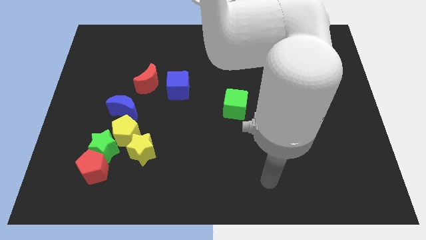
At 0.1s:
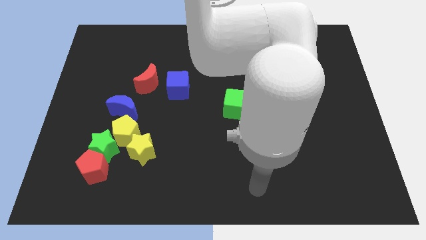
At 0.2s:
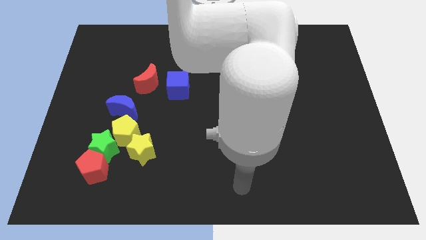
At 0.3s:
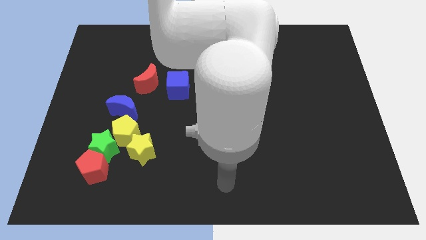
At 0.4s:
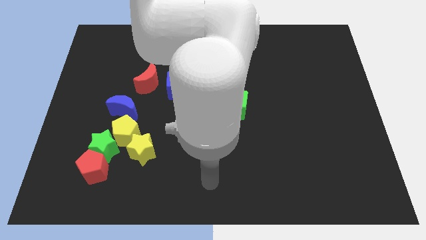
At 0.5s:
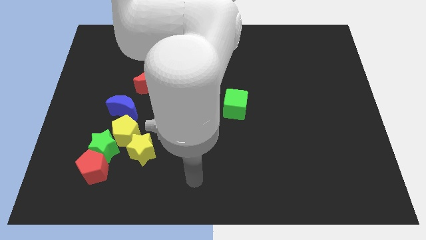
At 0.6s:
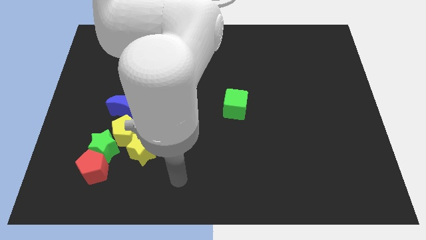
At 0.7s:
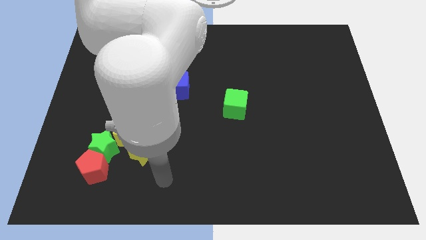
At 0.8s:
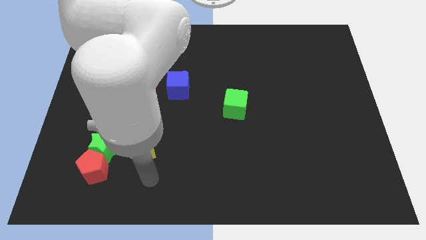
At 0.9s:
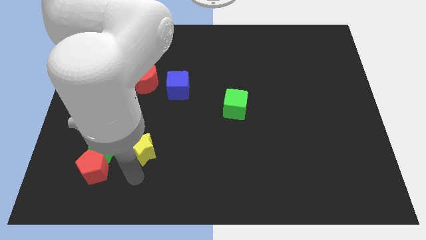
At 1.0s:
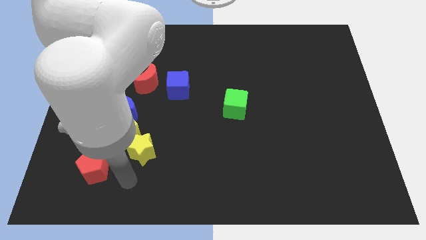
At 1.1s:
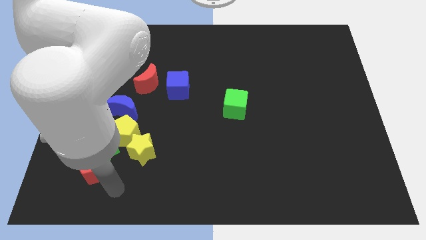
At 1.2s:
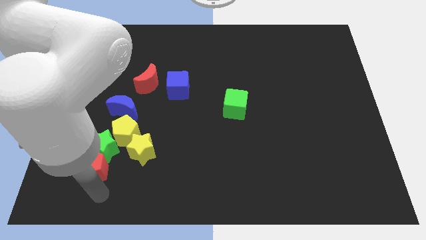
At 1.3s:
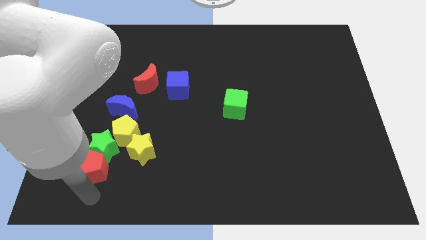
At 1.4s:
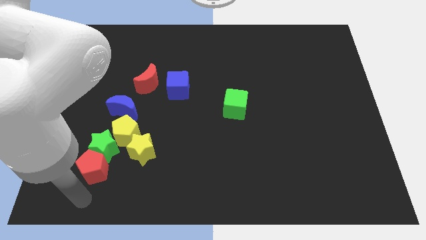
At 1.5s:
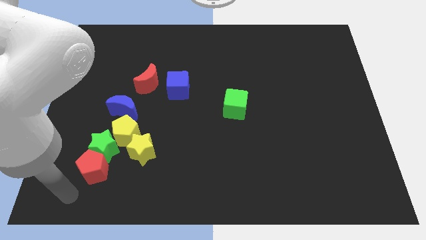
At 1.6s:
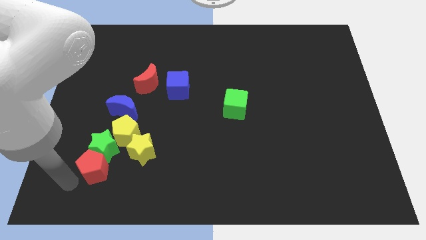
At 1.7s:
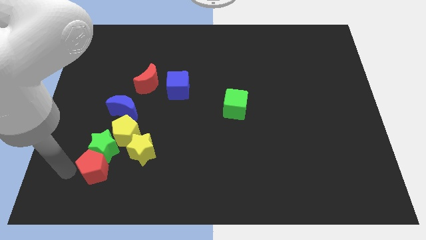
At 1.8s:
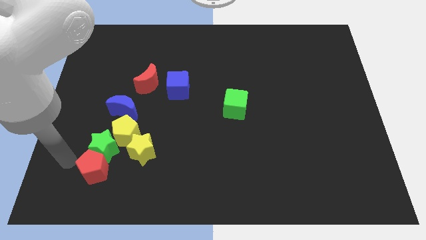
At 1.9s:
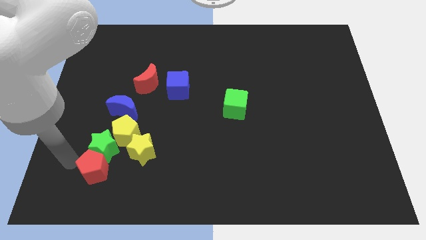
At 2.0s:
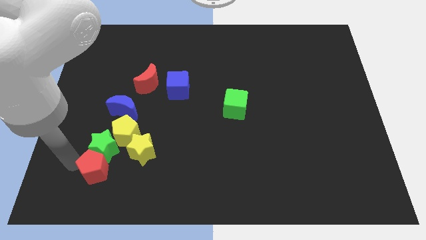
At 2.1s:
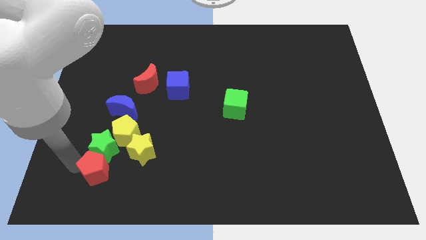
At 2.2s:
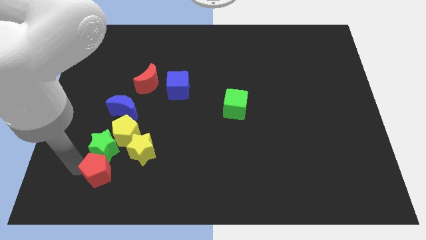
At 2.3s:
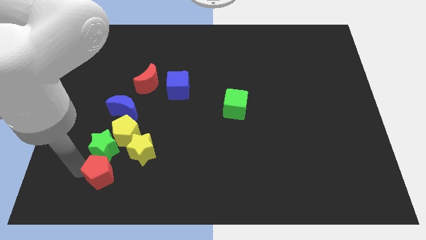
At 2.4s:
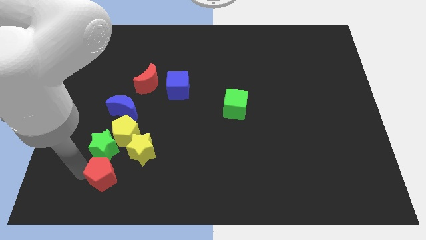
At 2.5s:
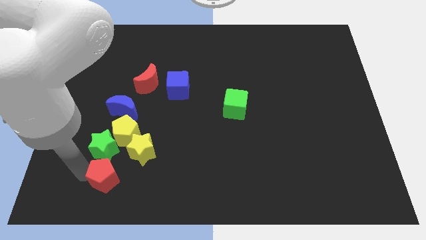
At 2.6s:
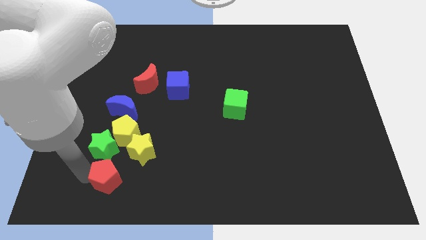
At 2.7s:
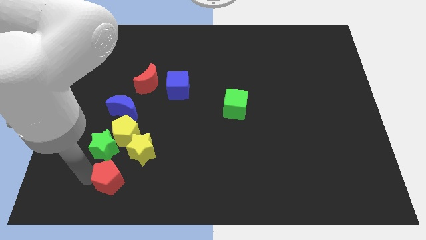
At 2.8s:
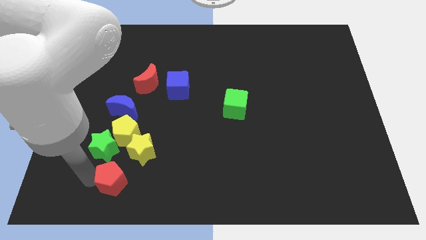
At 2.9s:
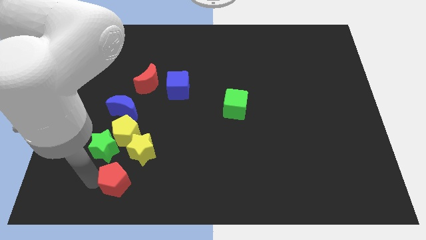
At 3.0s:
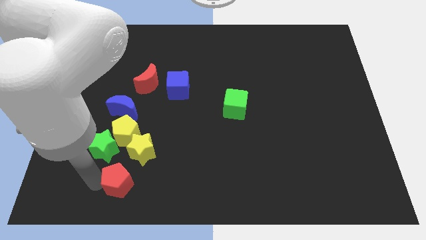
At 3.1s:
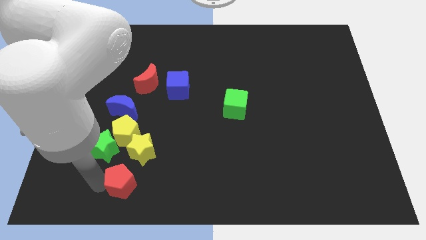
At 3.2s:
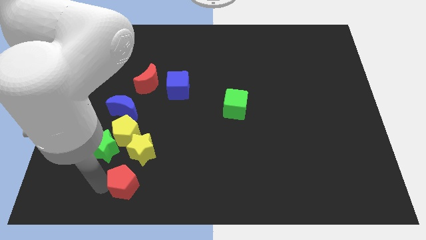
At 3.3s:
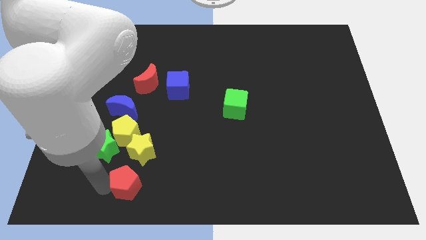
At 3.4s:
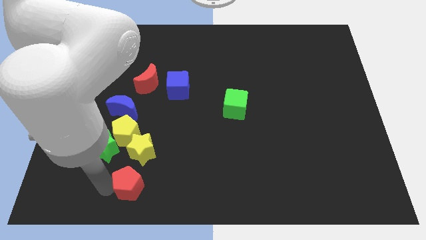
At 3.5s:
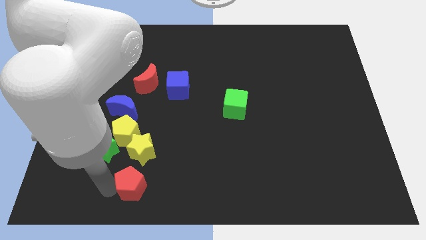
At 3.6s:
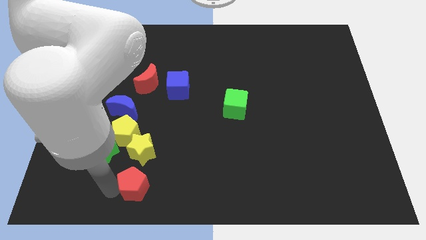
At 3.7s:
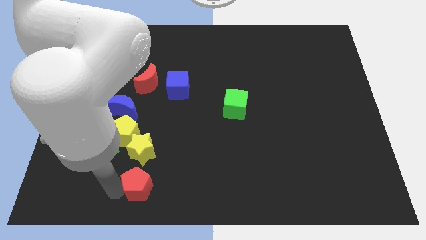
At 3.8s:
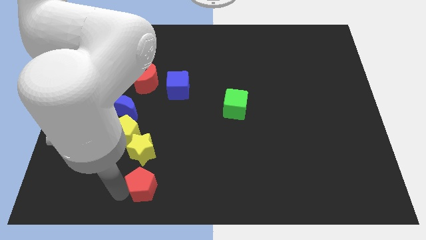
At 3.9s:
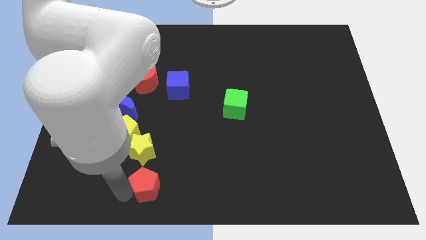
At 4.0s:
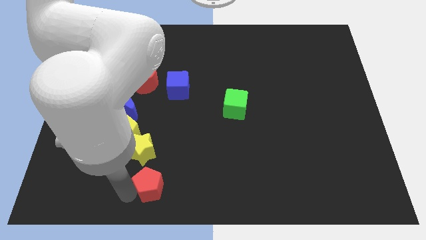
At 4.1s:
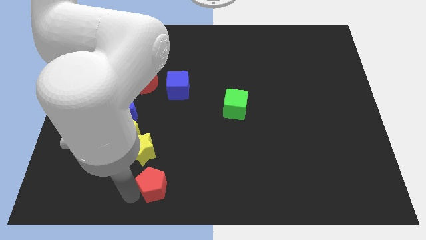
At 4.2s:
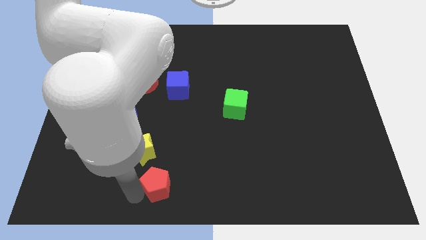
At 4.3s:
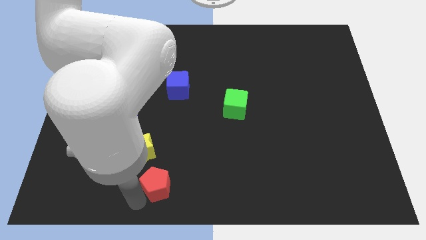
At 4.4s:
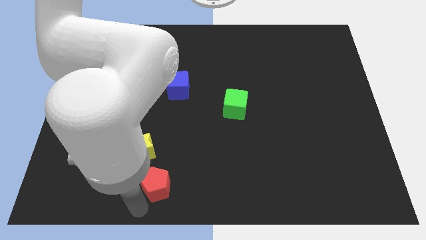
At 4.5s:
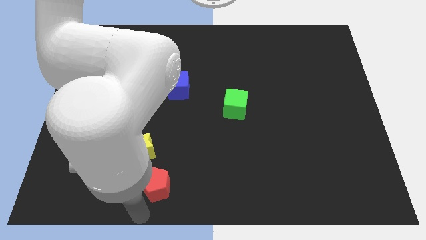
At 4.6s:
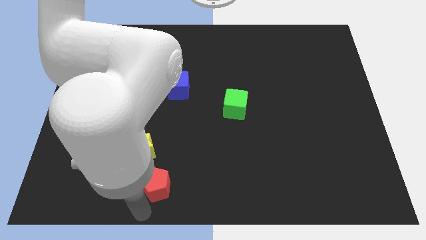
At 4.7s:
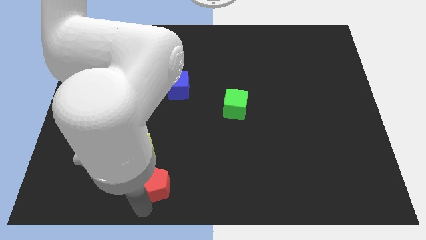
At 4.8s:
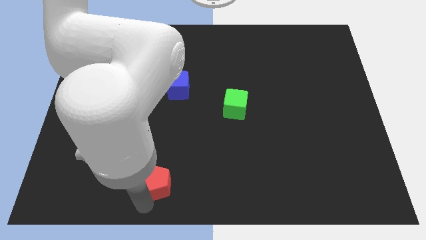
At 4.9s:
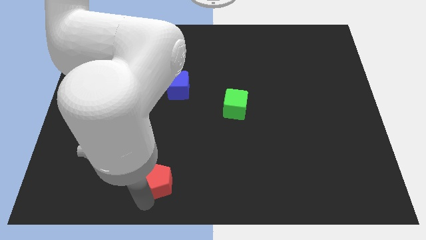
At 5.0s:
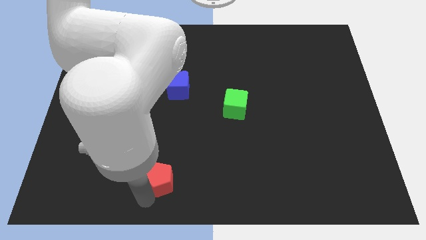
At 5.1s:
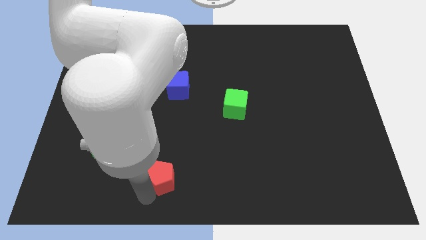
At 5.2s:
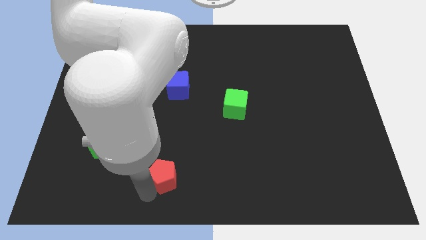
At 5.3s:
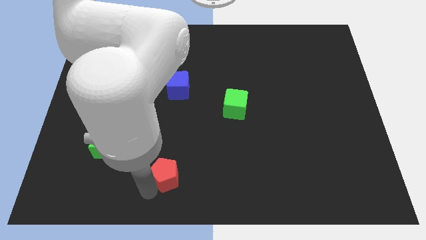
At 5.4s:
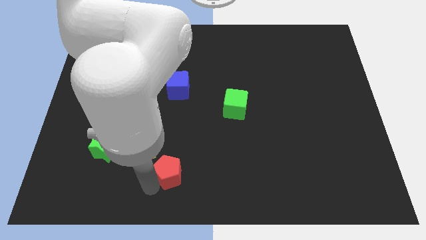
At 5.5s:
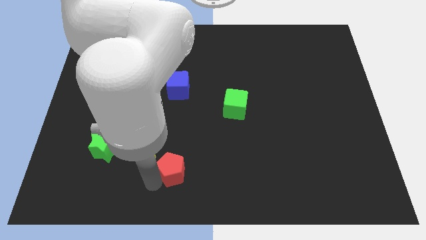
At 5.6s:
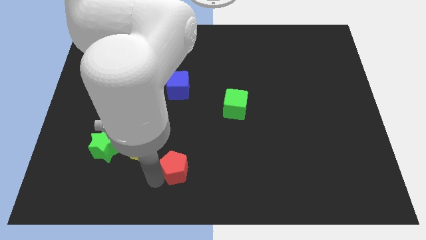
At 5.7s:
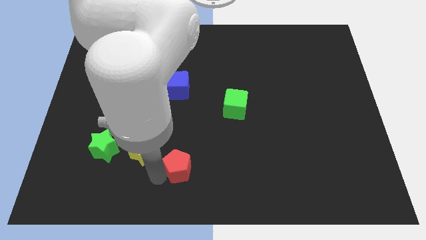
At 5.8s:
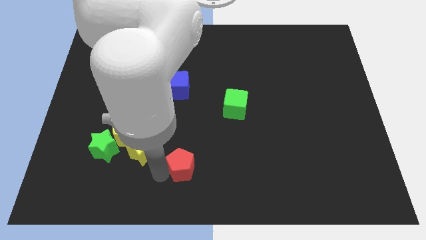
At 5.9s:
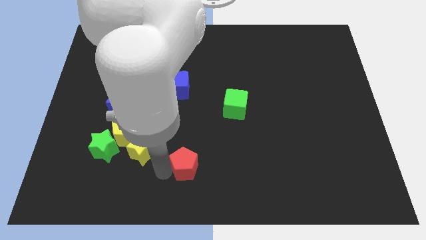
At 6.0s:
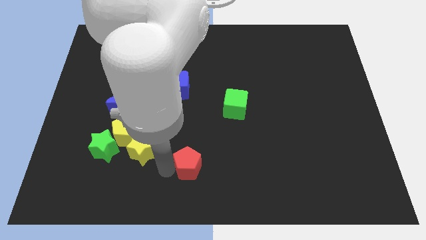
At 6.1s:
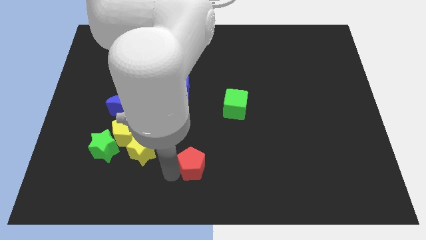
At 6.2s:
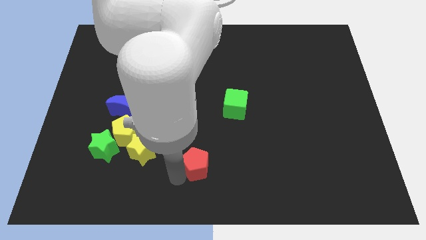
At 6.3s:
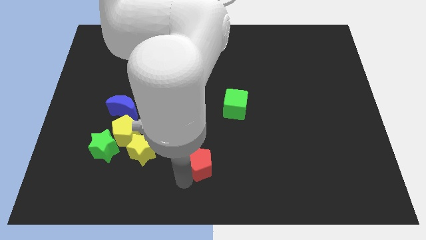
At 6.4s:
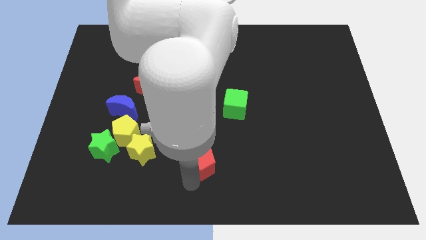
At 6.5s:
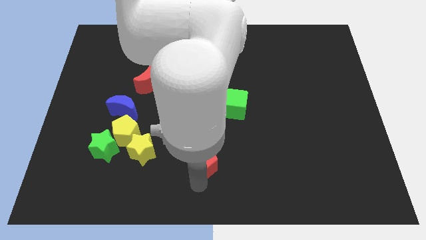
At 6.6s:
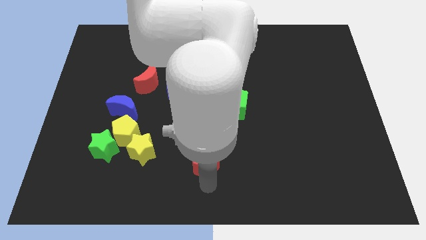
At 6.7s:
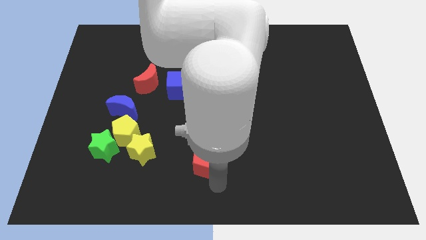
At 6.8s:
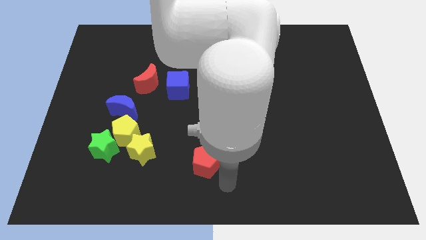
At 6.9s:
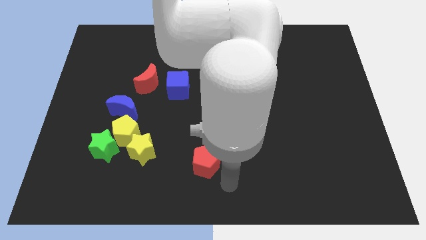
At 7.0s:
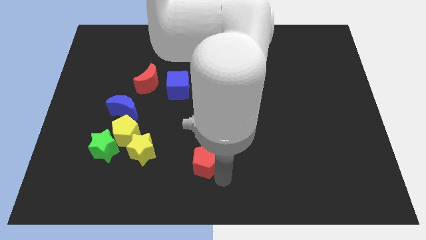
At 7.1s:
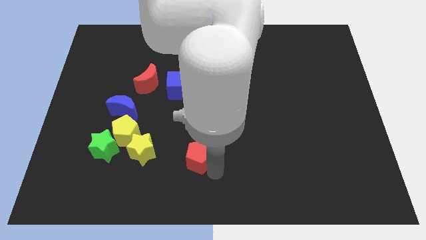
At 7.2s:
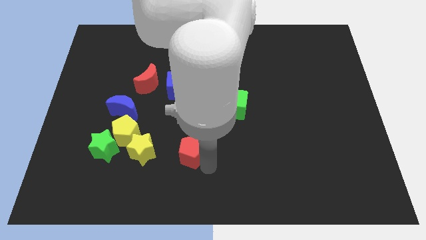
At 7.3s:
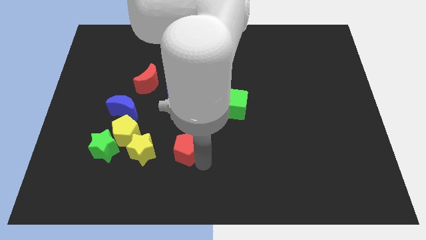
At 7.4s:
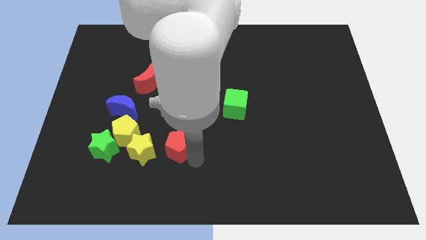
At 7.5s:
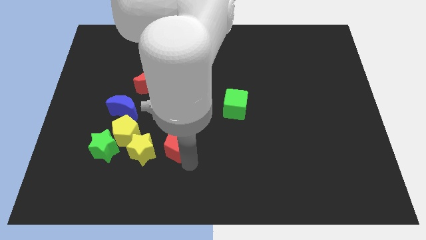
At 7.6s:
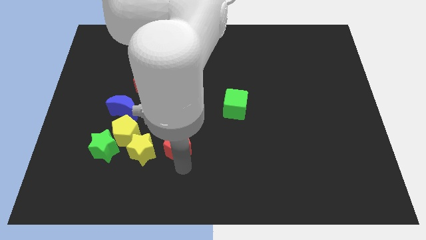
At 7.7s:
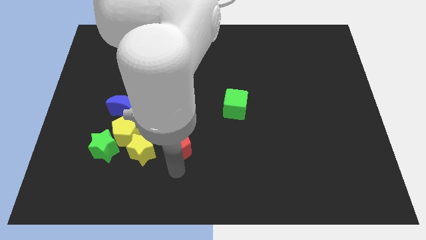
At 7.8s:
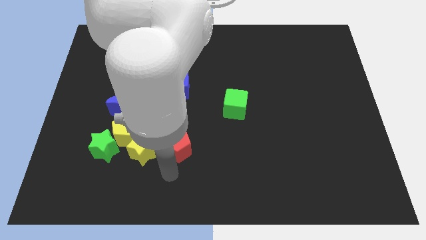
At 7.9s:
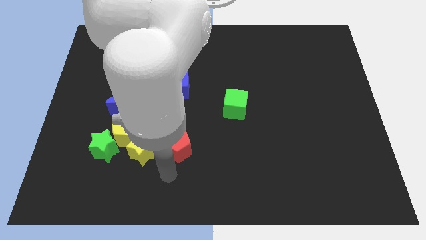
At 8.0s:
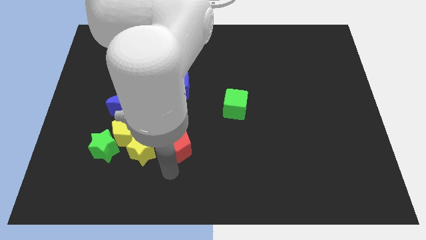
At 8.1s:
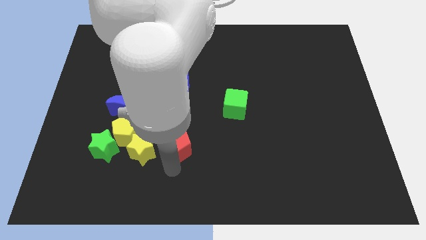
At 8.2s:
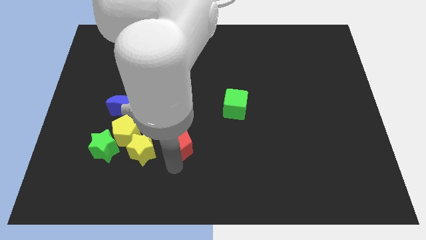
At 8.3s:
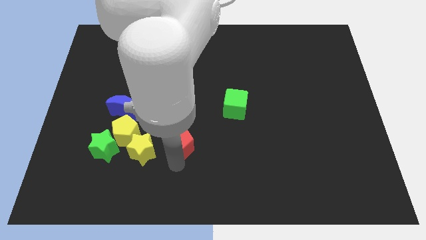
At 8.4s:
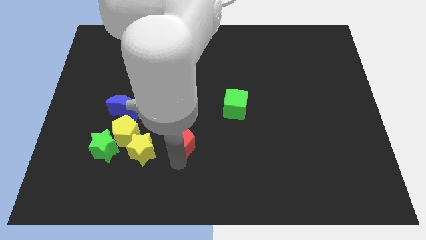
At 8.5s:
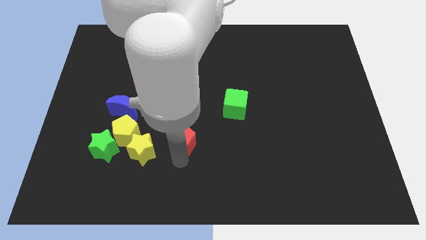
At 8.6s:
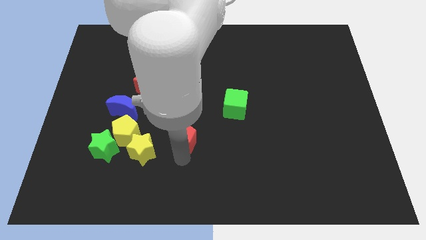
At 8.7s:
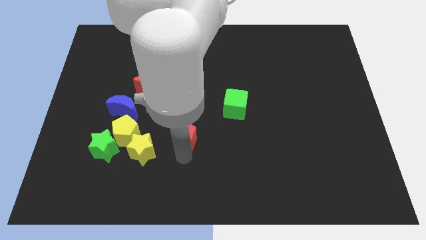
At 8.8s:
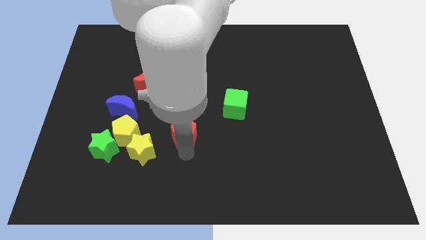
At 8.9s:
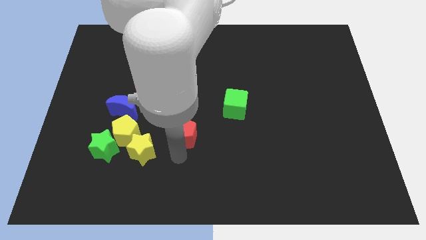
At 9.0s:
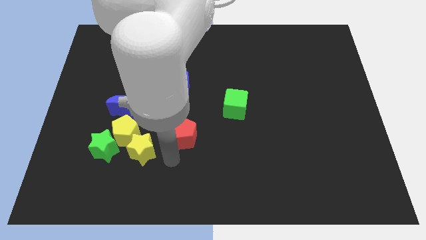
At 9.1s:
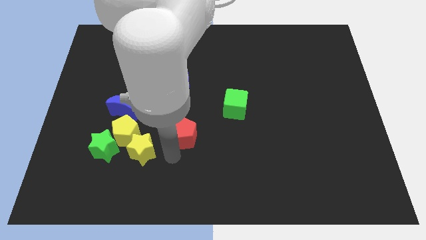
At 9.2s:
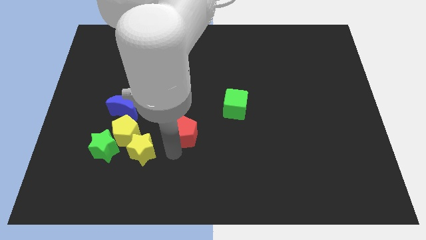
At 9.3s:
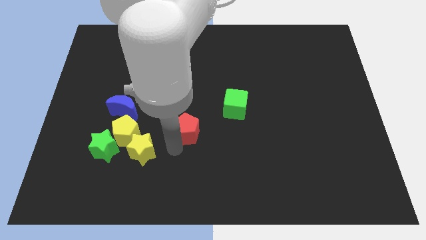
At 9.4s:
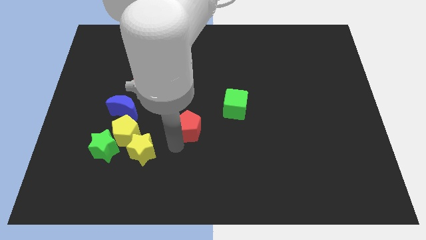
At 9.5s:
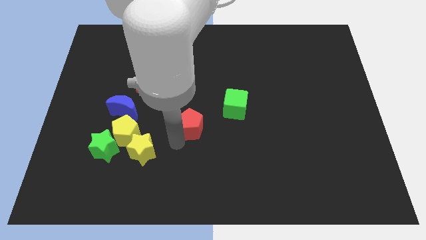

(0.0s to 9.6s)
push the red pentagon diagonally up and right
